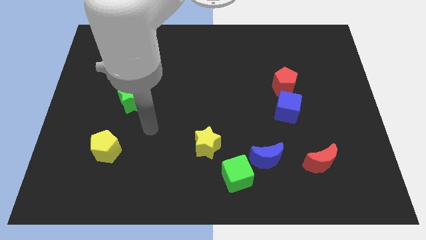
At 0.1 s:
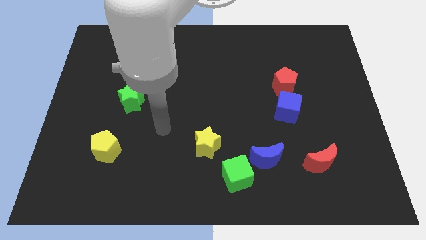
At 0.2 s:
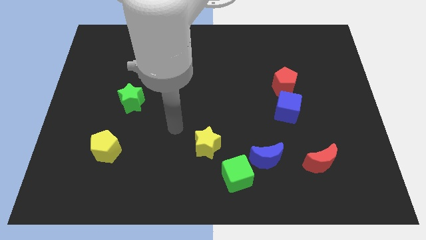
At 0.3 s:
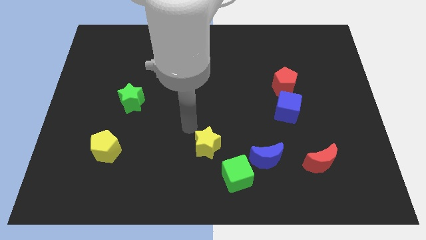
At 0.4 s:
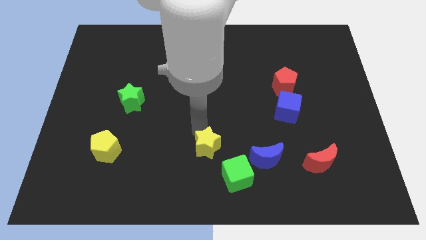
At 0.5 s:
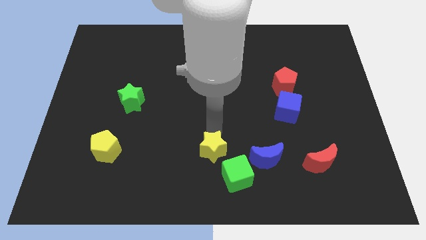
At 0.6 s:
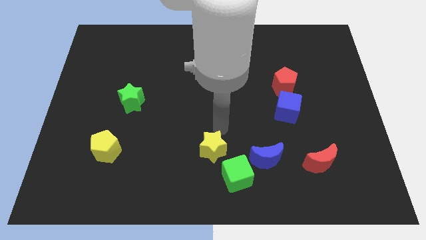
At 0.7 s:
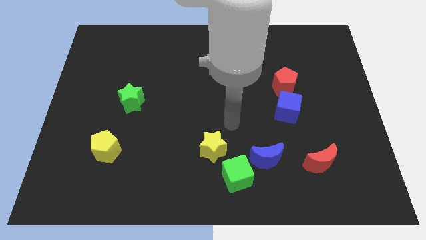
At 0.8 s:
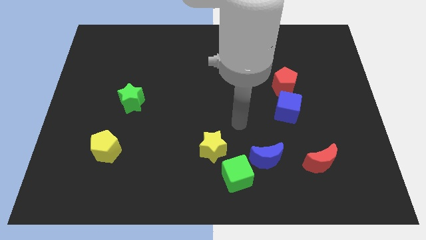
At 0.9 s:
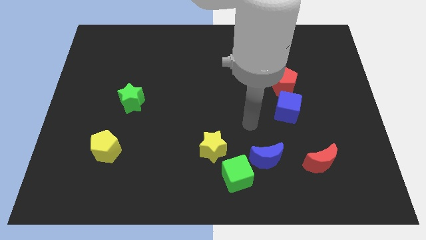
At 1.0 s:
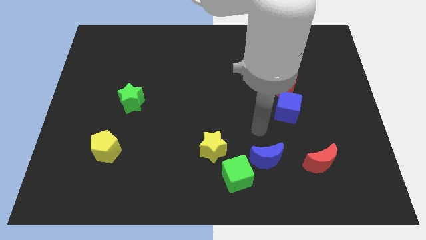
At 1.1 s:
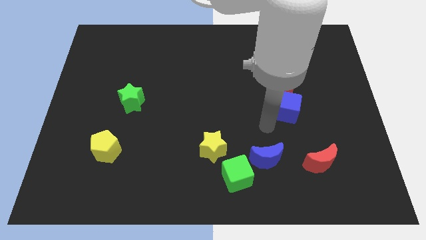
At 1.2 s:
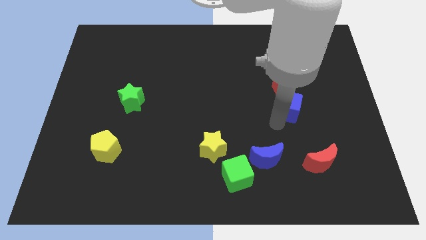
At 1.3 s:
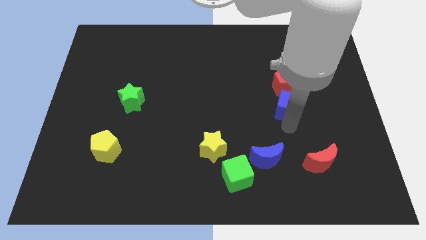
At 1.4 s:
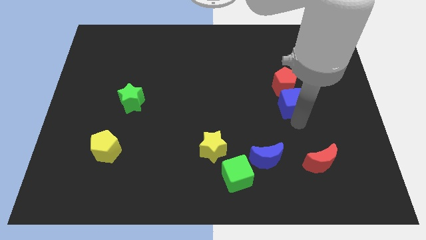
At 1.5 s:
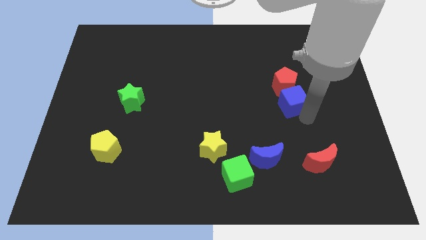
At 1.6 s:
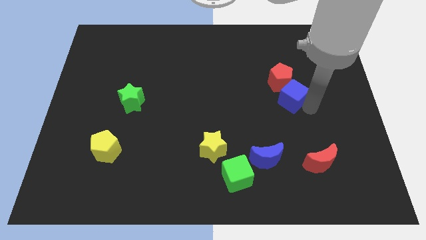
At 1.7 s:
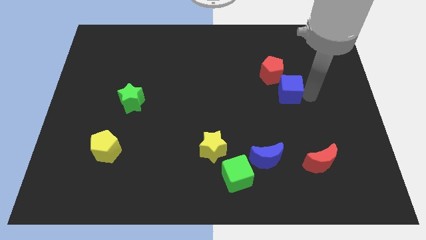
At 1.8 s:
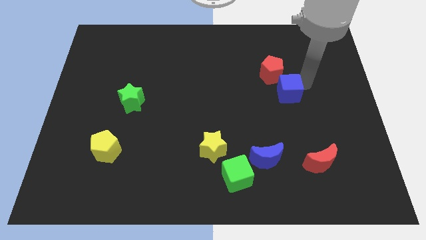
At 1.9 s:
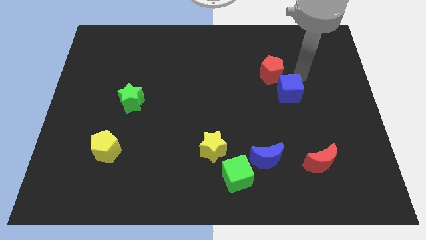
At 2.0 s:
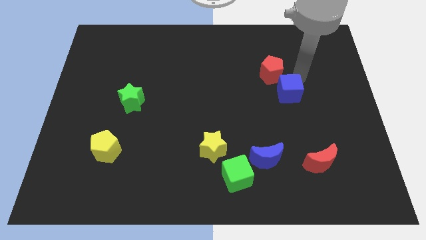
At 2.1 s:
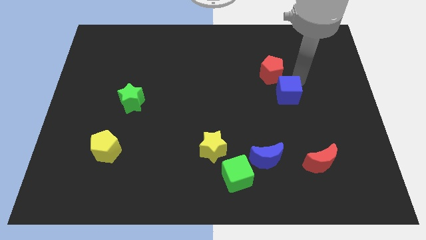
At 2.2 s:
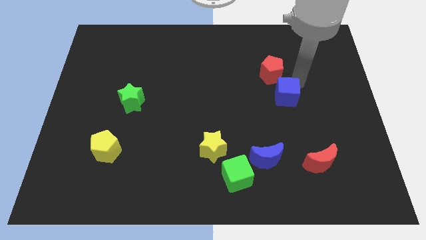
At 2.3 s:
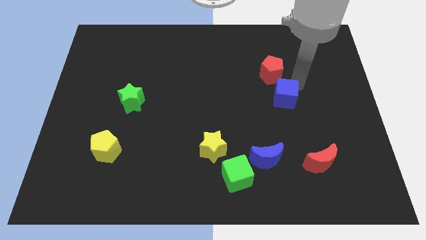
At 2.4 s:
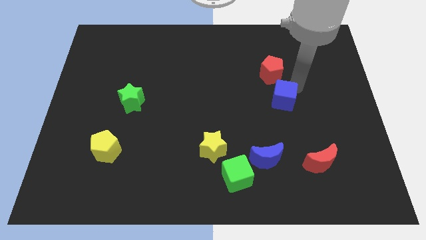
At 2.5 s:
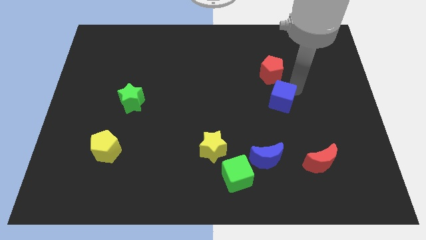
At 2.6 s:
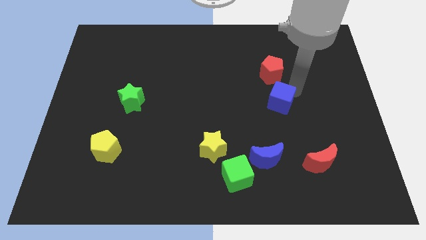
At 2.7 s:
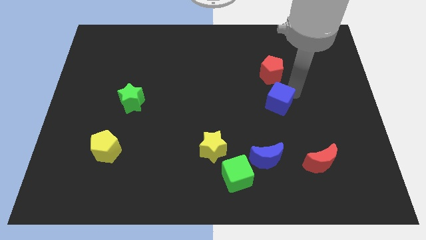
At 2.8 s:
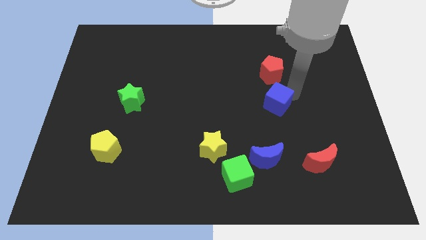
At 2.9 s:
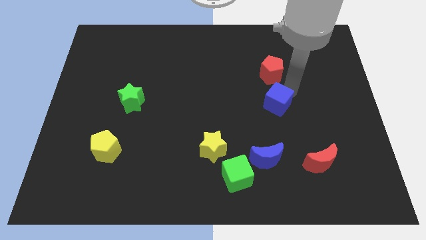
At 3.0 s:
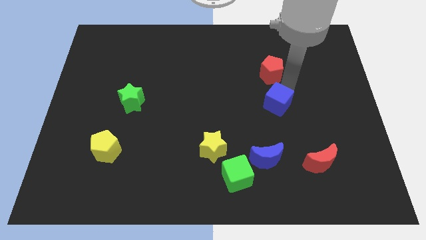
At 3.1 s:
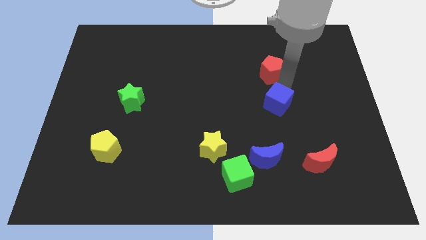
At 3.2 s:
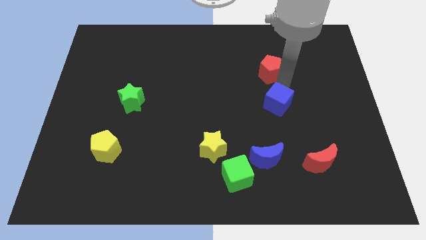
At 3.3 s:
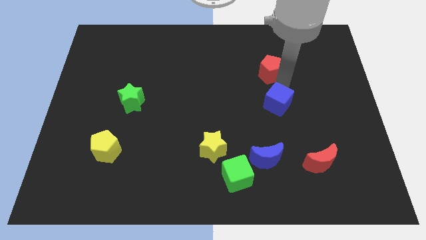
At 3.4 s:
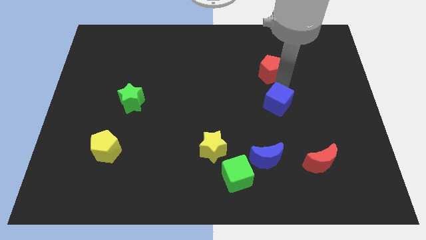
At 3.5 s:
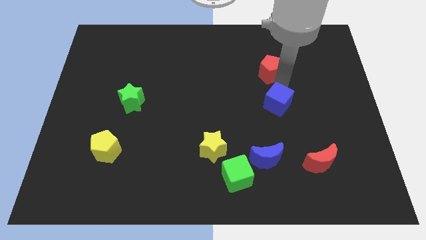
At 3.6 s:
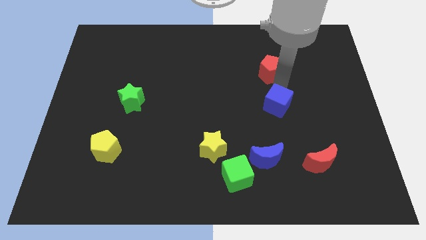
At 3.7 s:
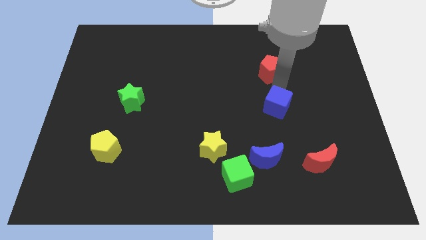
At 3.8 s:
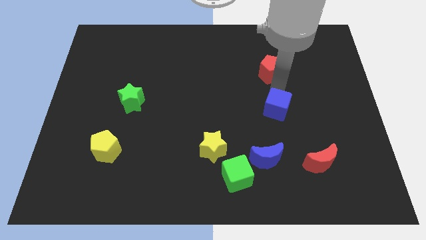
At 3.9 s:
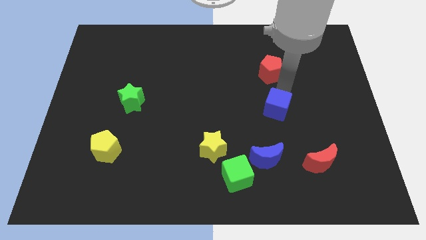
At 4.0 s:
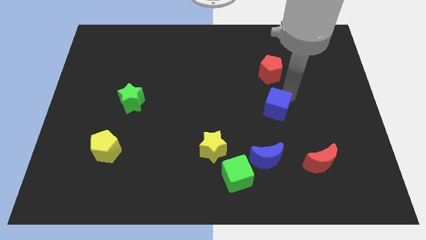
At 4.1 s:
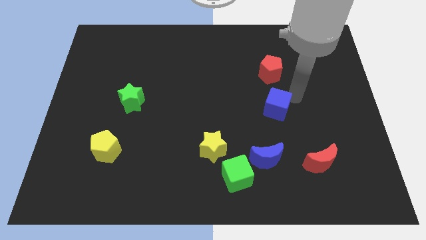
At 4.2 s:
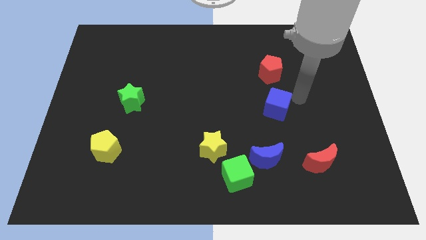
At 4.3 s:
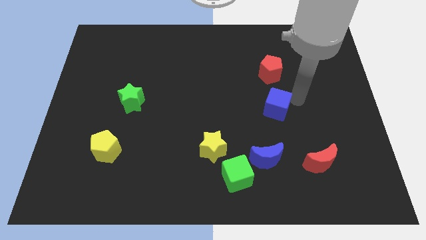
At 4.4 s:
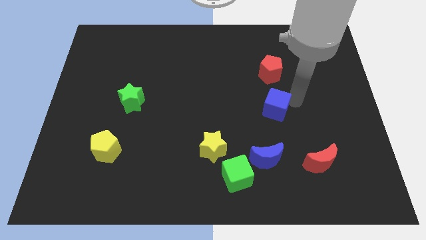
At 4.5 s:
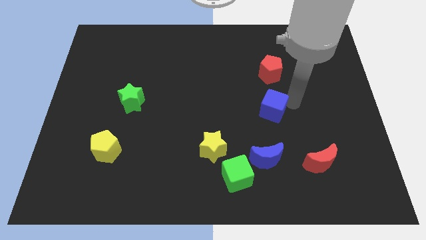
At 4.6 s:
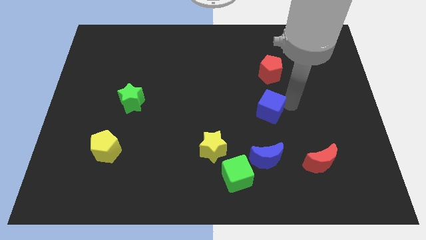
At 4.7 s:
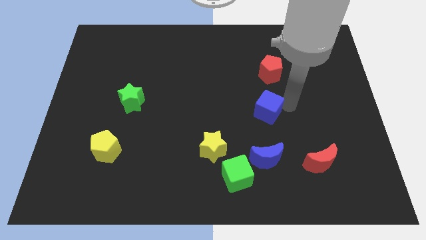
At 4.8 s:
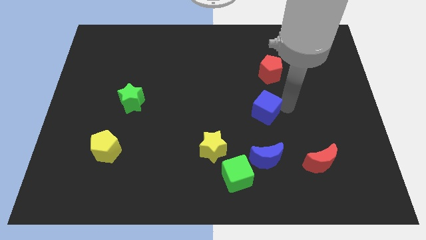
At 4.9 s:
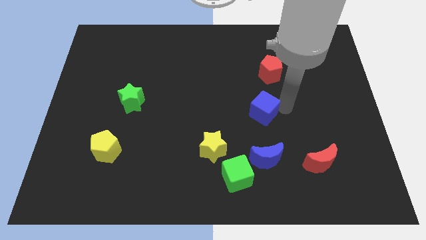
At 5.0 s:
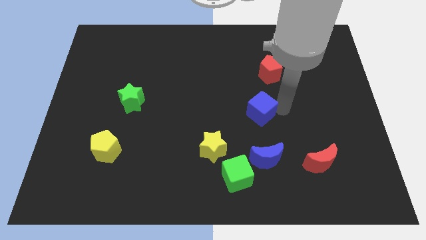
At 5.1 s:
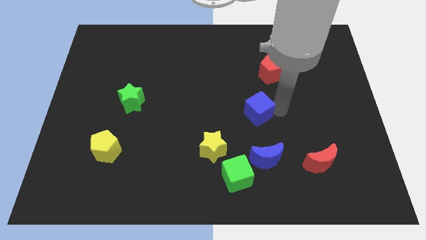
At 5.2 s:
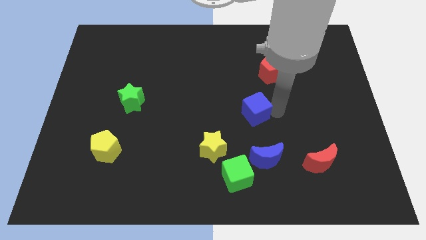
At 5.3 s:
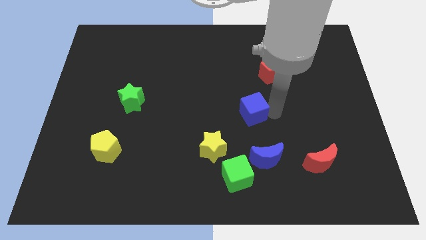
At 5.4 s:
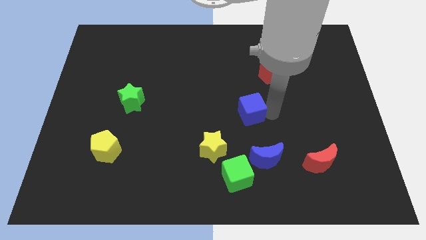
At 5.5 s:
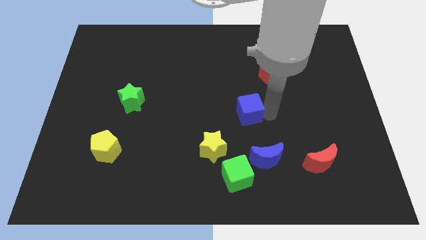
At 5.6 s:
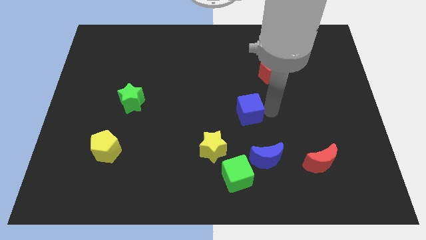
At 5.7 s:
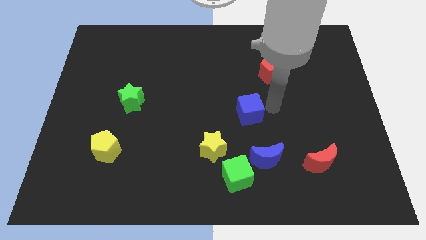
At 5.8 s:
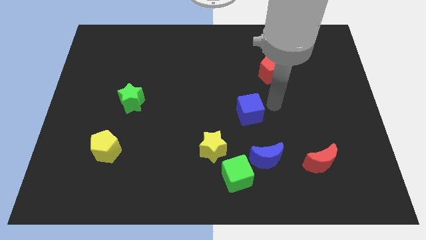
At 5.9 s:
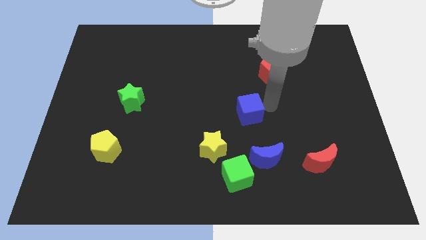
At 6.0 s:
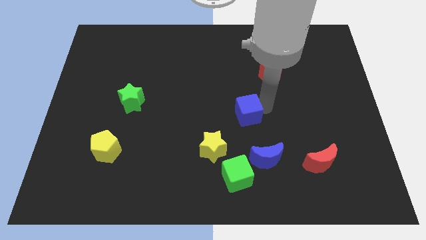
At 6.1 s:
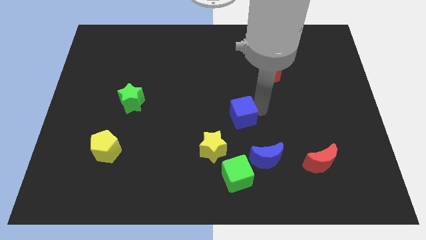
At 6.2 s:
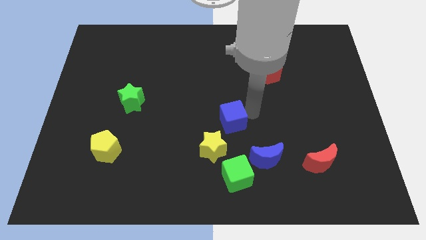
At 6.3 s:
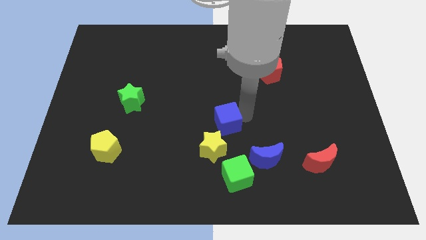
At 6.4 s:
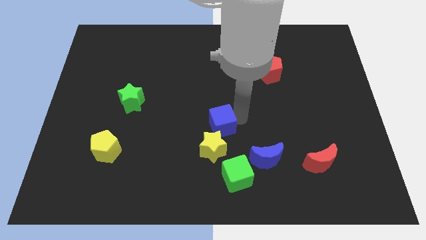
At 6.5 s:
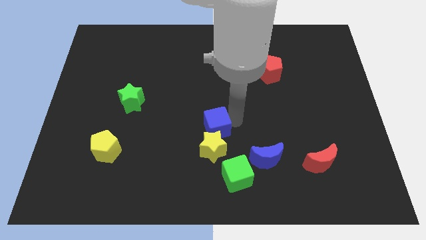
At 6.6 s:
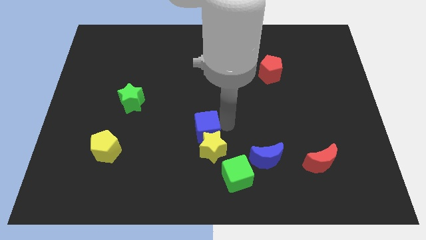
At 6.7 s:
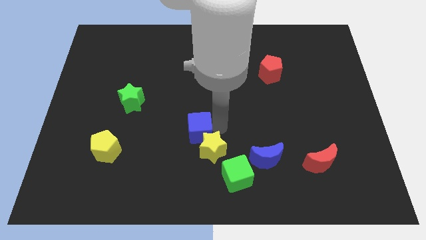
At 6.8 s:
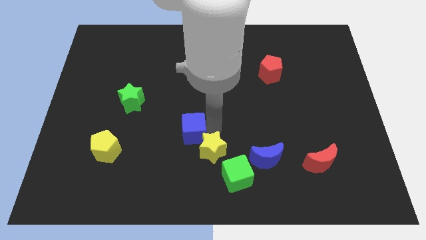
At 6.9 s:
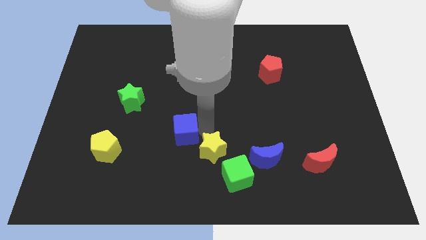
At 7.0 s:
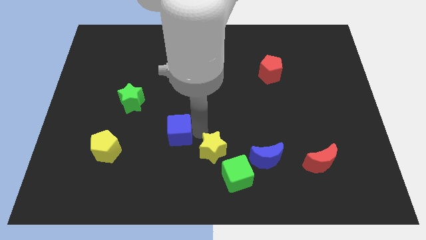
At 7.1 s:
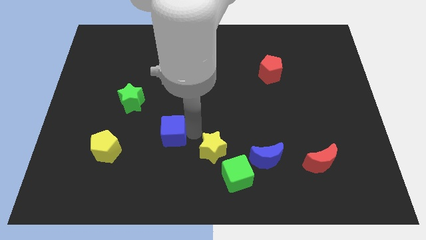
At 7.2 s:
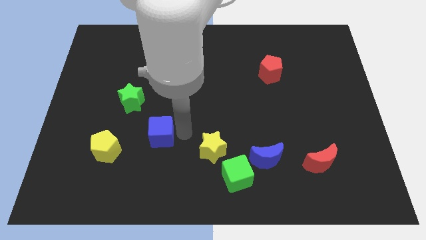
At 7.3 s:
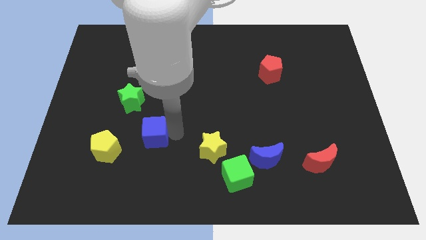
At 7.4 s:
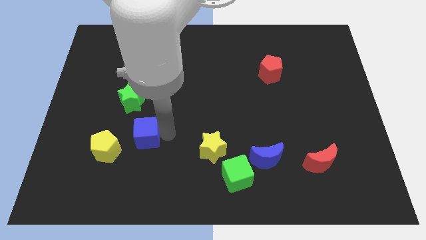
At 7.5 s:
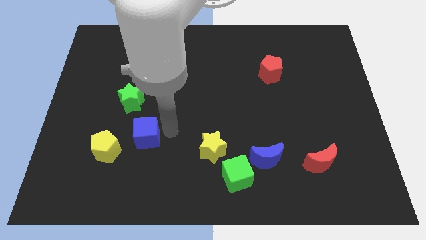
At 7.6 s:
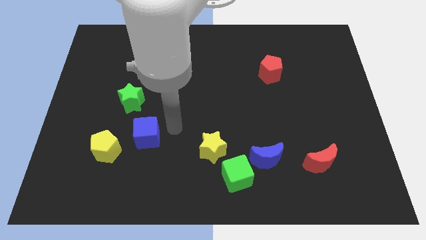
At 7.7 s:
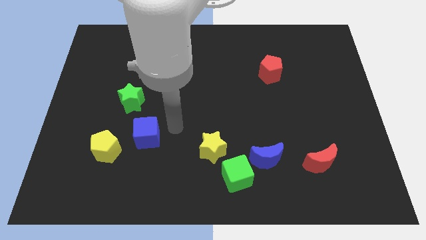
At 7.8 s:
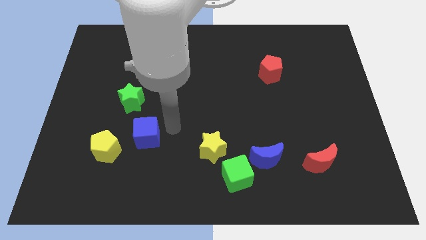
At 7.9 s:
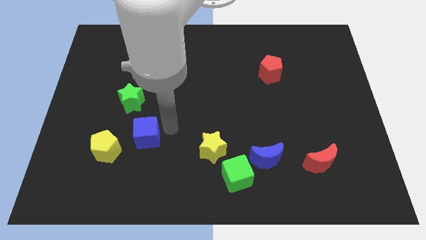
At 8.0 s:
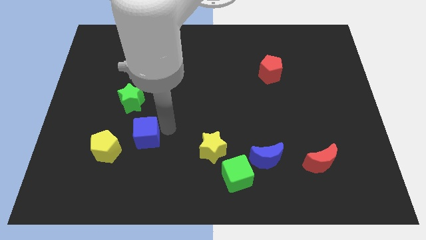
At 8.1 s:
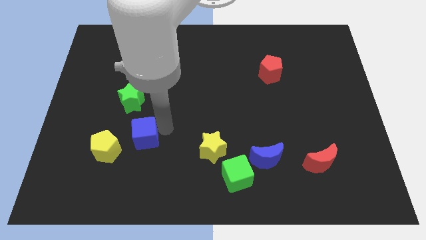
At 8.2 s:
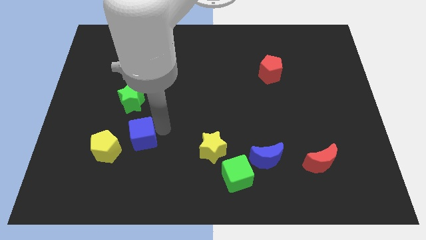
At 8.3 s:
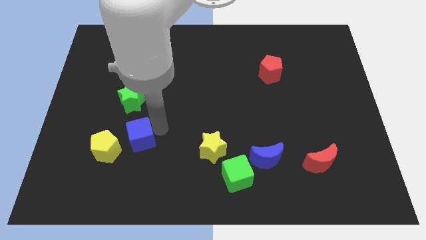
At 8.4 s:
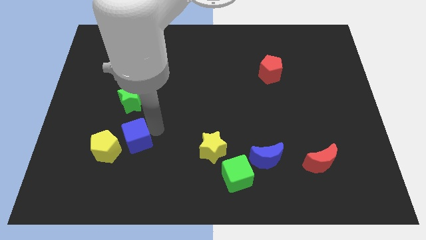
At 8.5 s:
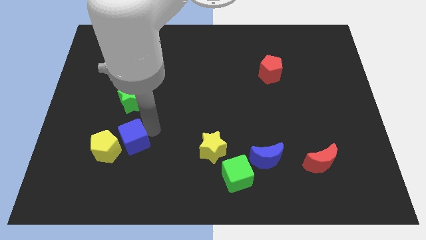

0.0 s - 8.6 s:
put the blue cube next to the yellow pentagon
